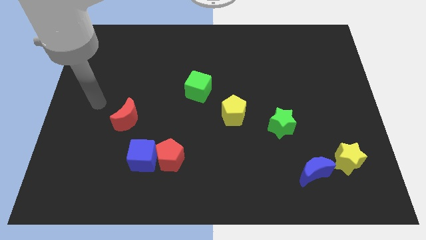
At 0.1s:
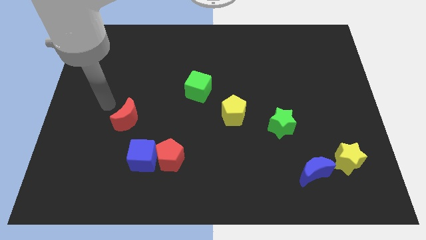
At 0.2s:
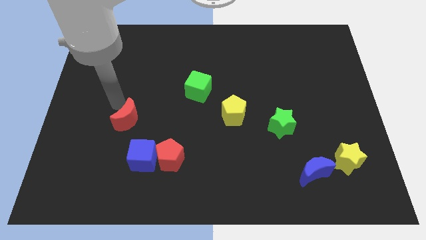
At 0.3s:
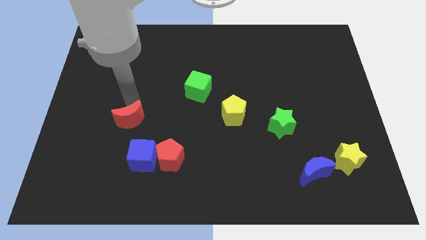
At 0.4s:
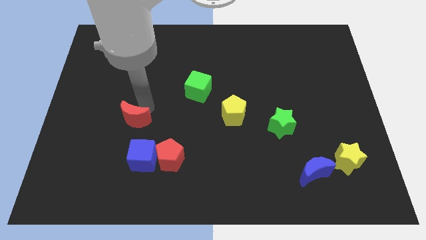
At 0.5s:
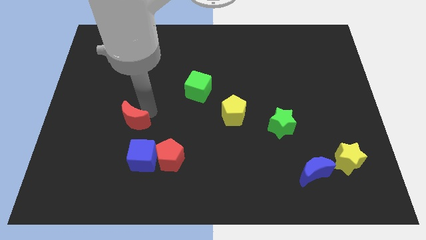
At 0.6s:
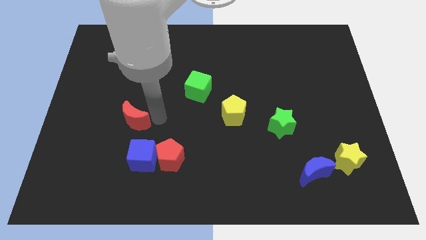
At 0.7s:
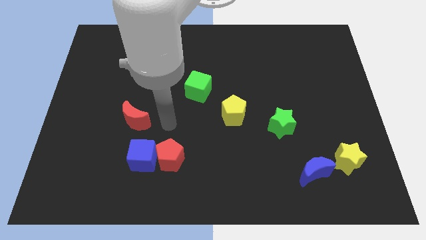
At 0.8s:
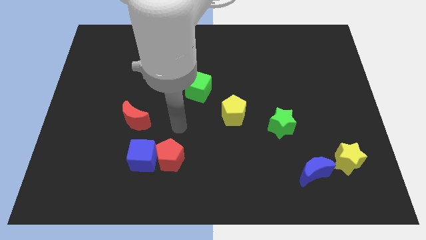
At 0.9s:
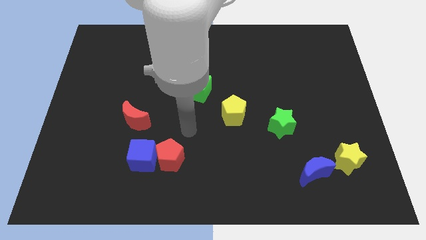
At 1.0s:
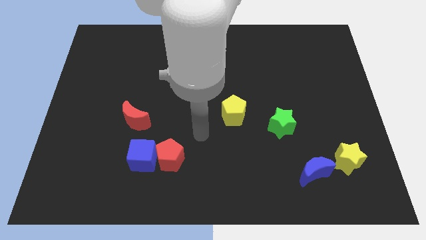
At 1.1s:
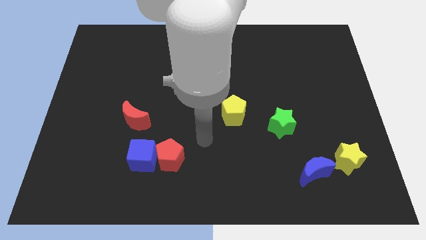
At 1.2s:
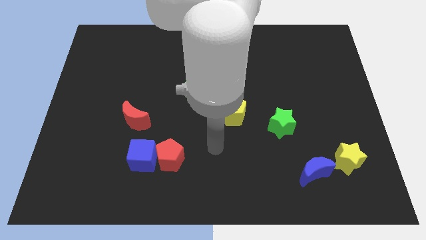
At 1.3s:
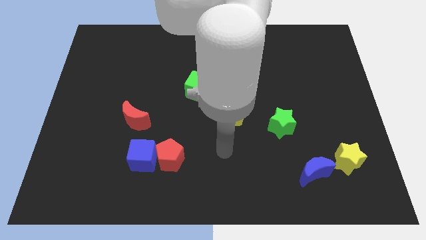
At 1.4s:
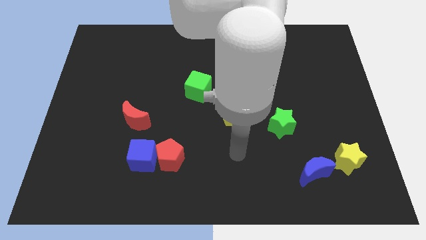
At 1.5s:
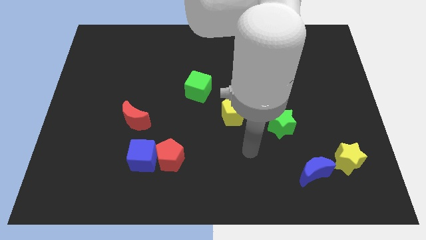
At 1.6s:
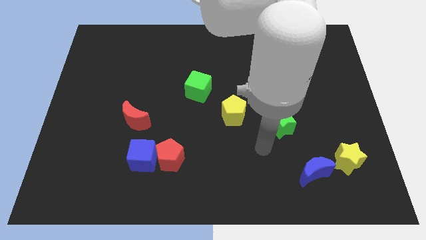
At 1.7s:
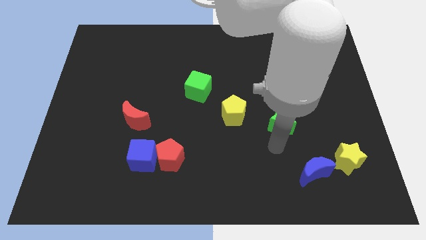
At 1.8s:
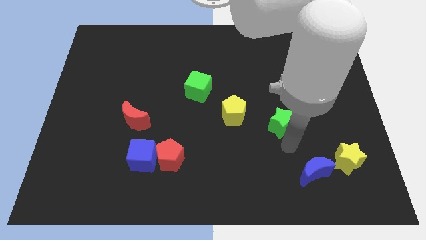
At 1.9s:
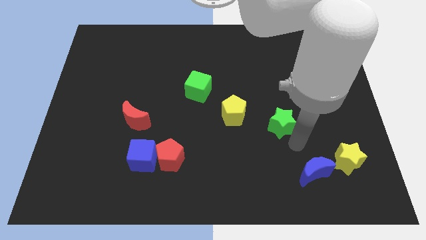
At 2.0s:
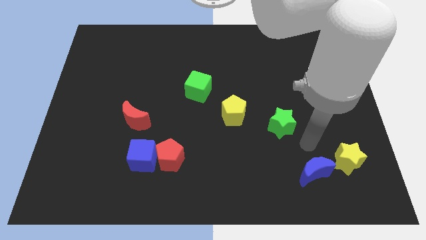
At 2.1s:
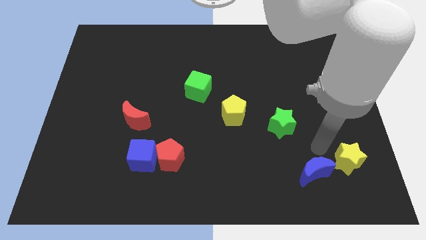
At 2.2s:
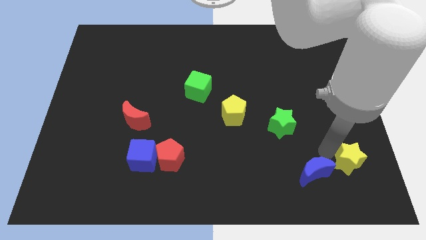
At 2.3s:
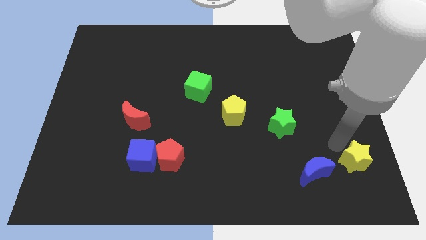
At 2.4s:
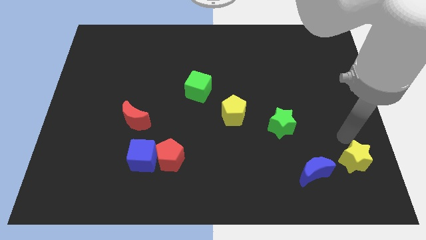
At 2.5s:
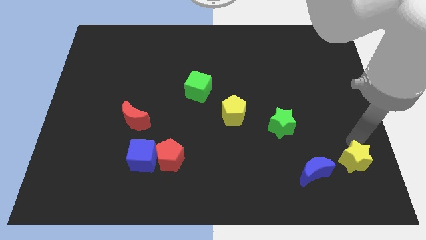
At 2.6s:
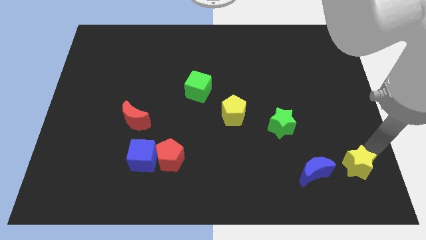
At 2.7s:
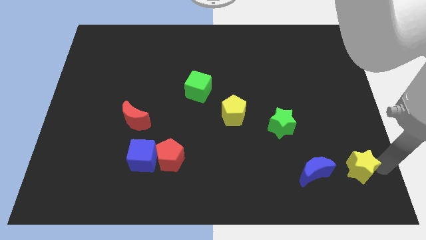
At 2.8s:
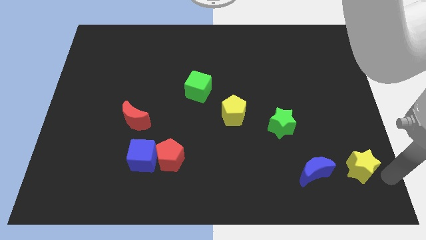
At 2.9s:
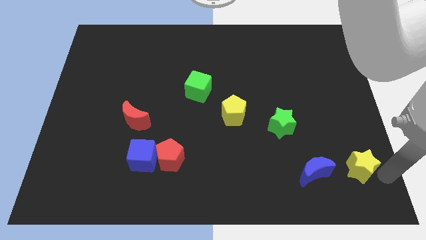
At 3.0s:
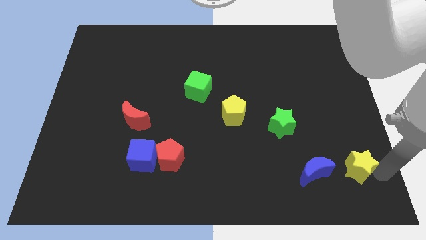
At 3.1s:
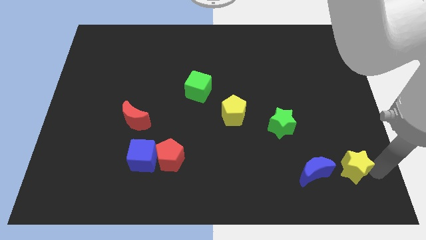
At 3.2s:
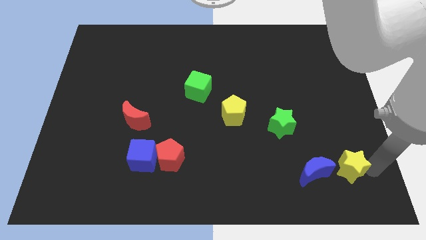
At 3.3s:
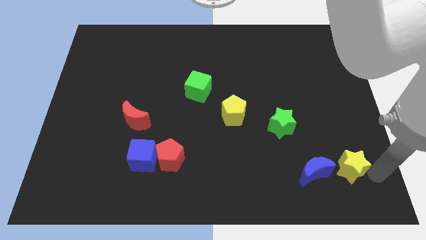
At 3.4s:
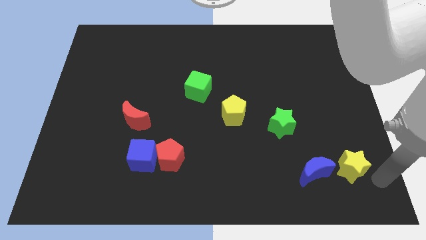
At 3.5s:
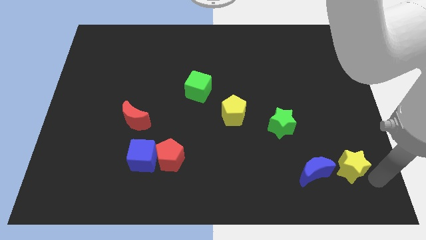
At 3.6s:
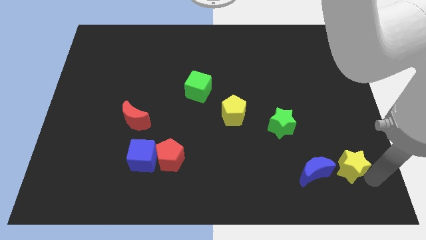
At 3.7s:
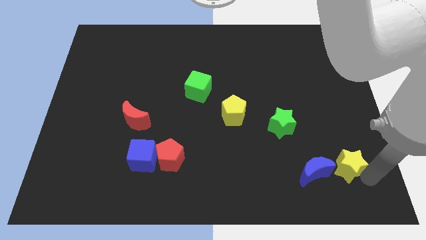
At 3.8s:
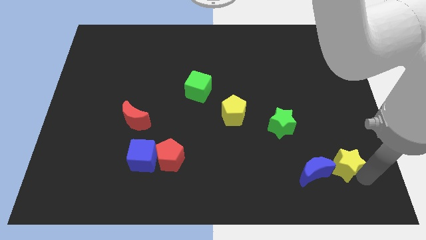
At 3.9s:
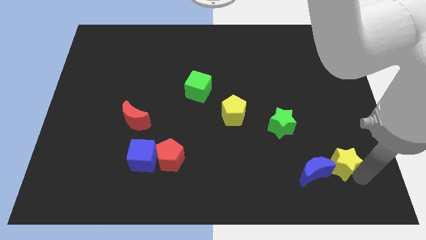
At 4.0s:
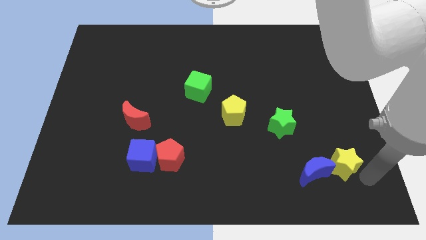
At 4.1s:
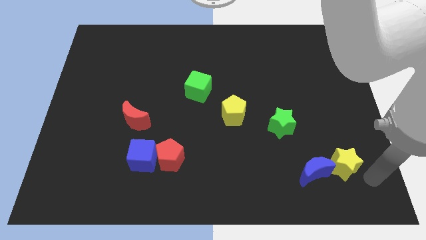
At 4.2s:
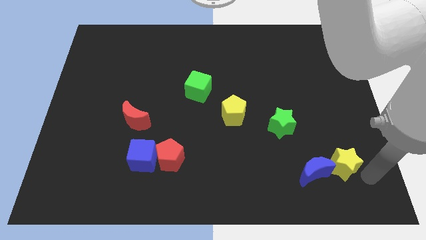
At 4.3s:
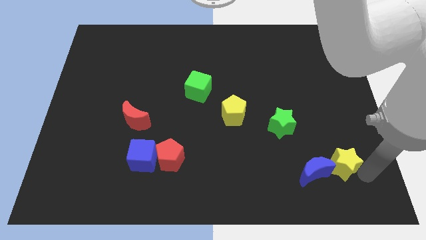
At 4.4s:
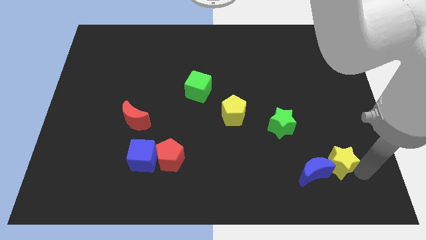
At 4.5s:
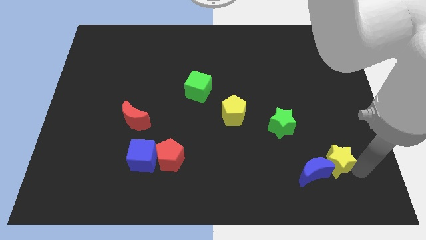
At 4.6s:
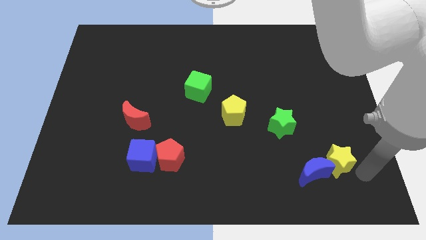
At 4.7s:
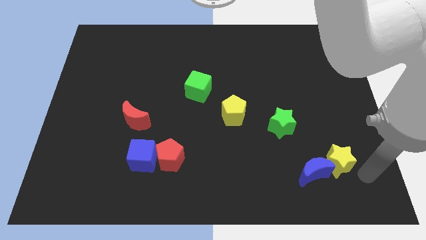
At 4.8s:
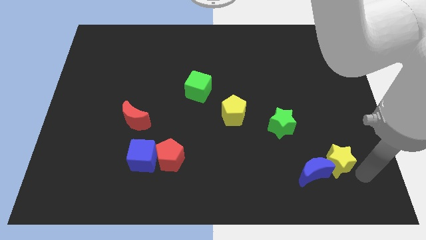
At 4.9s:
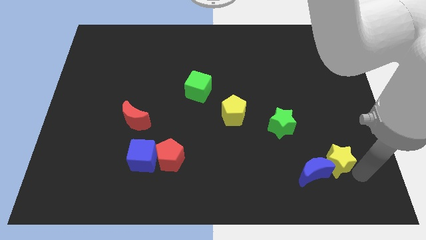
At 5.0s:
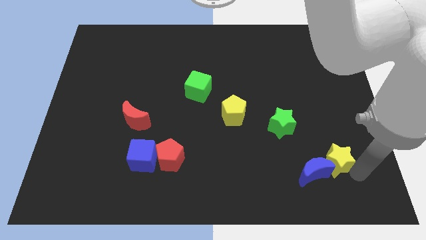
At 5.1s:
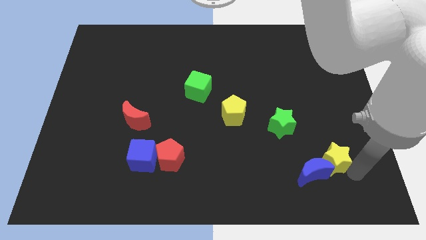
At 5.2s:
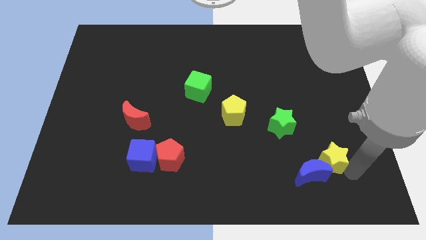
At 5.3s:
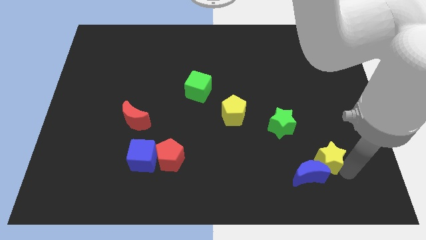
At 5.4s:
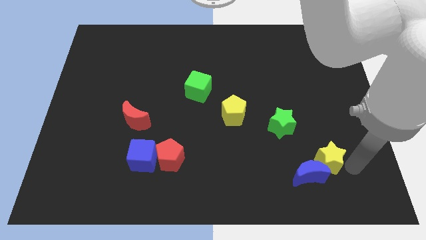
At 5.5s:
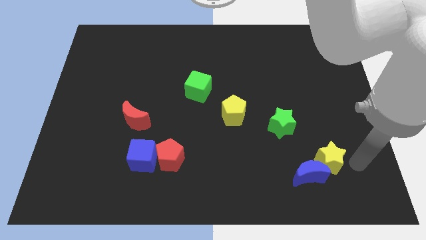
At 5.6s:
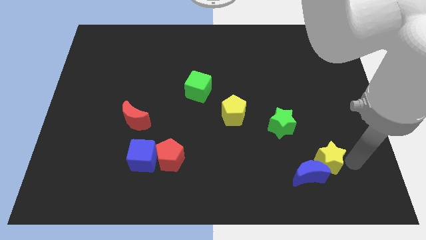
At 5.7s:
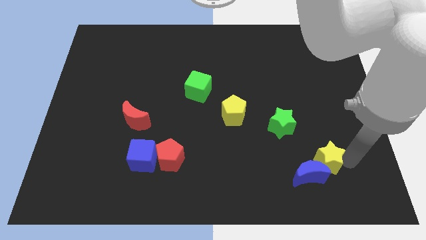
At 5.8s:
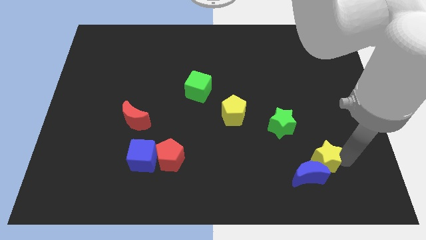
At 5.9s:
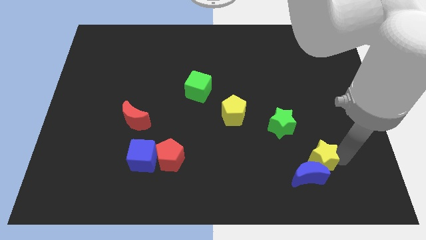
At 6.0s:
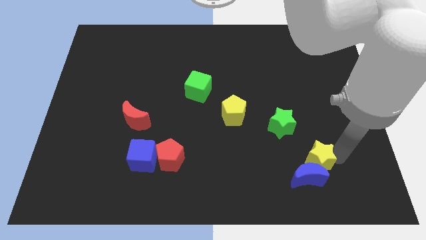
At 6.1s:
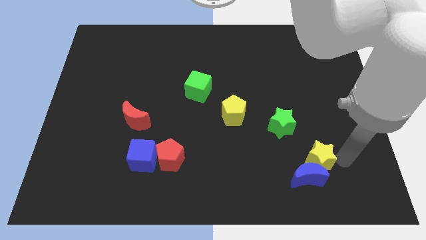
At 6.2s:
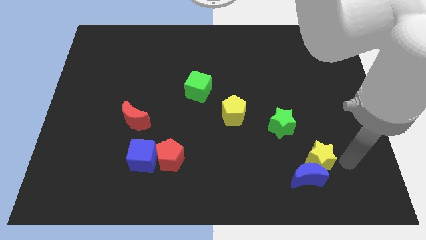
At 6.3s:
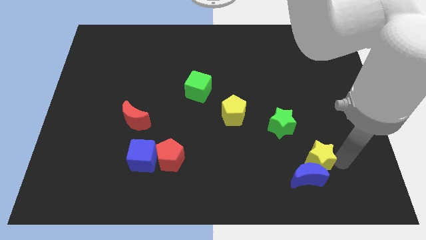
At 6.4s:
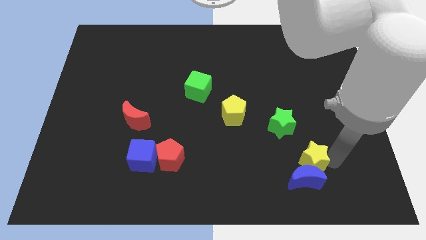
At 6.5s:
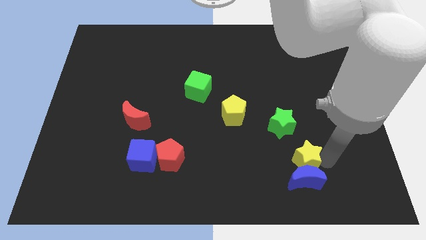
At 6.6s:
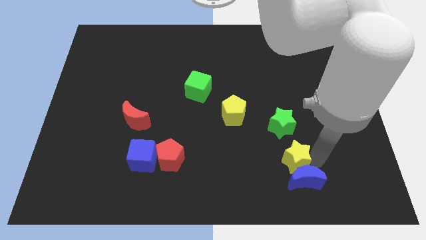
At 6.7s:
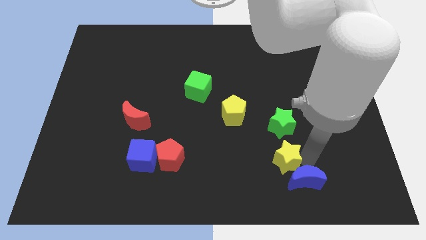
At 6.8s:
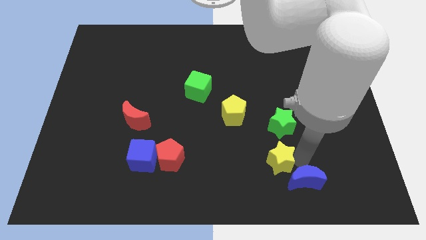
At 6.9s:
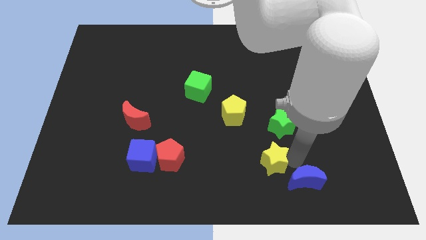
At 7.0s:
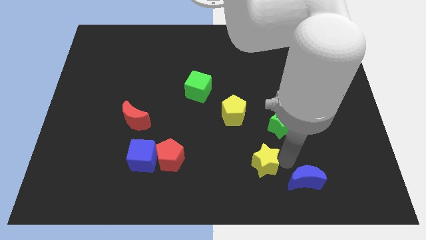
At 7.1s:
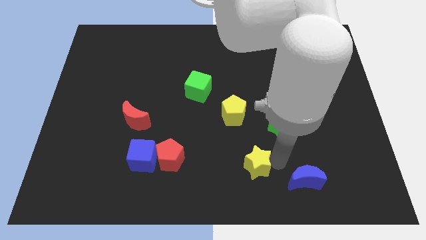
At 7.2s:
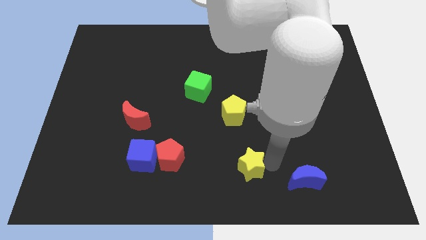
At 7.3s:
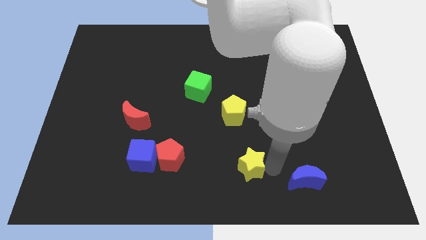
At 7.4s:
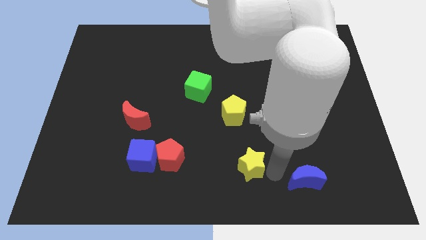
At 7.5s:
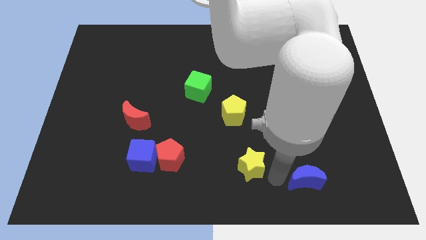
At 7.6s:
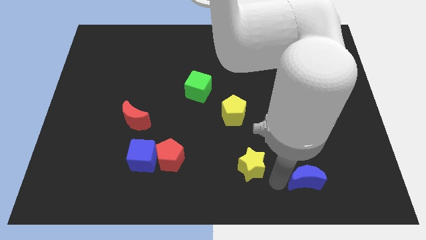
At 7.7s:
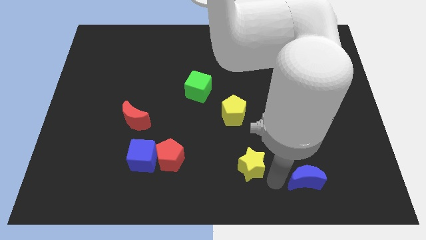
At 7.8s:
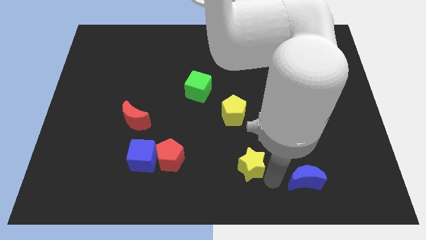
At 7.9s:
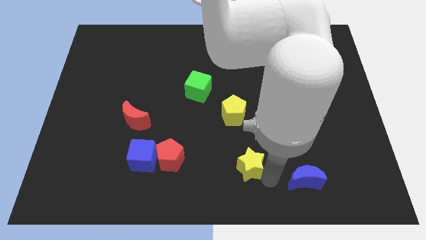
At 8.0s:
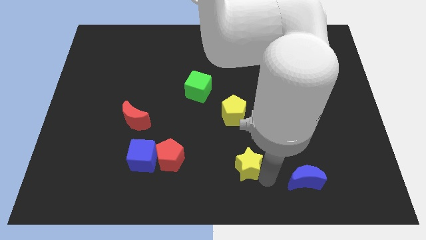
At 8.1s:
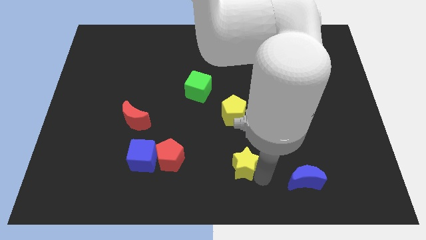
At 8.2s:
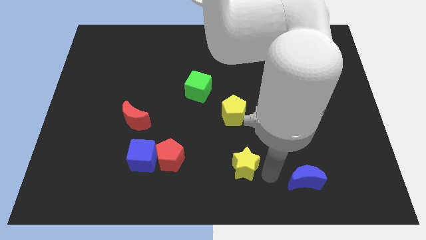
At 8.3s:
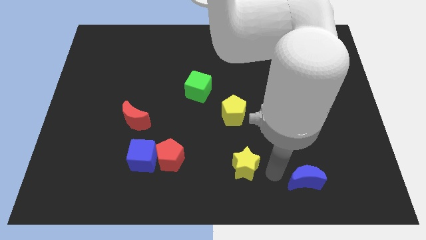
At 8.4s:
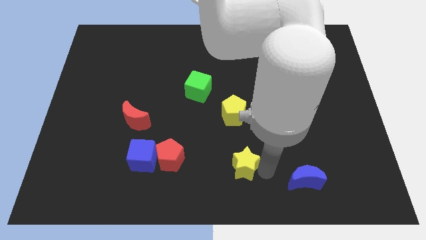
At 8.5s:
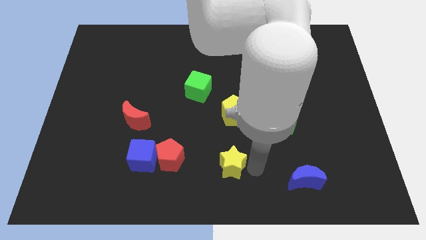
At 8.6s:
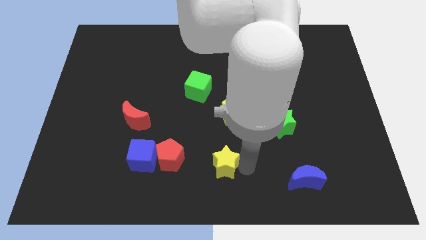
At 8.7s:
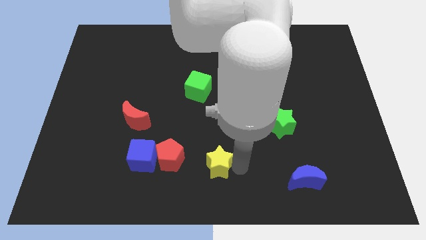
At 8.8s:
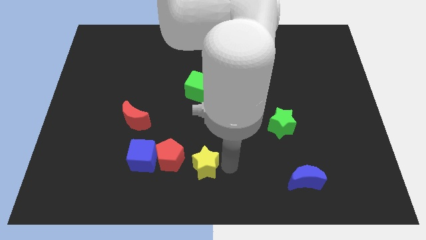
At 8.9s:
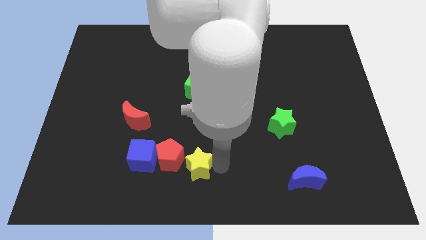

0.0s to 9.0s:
put the yellow star towards the red pentagon
